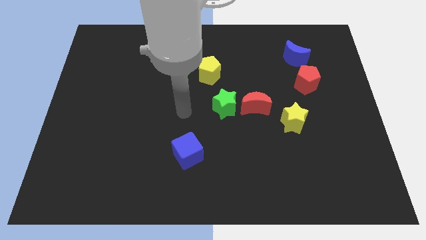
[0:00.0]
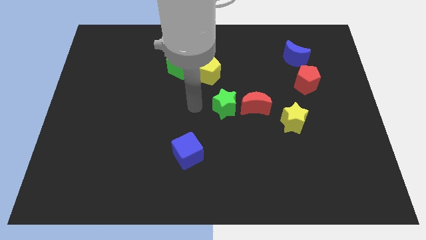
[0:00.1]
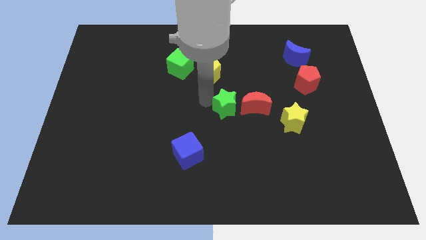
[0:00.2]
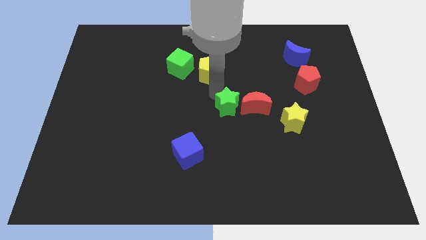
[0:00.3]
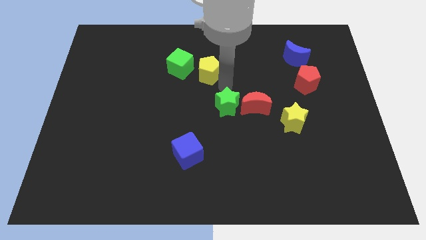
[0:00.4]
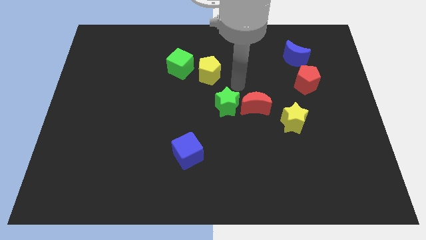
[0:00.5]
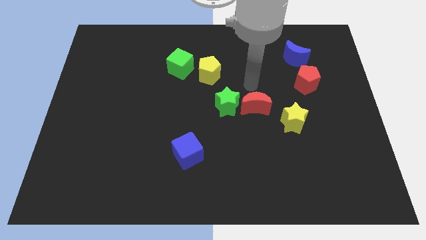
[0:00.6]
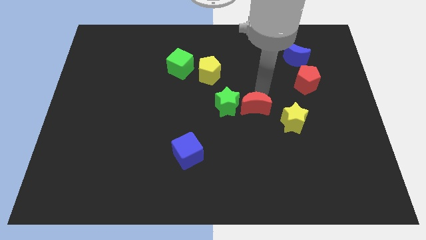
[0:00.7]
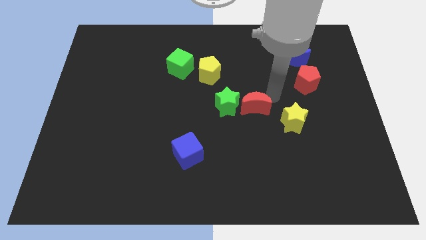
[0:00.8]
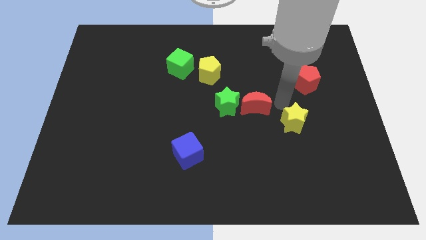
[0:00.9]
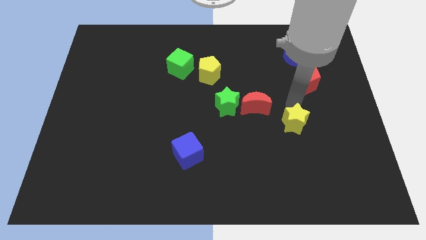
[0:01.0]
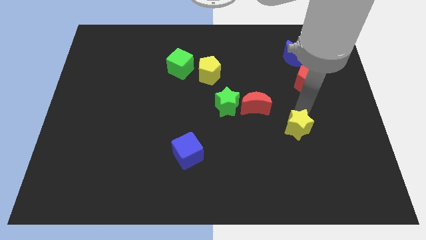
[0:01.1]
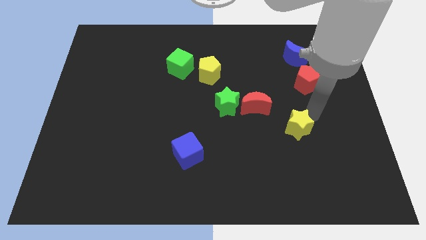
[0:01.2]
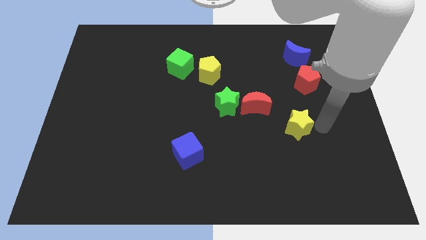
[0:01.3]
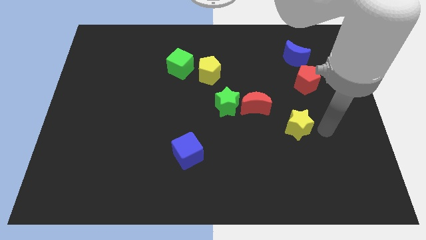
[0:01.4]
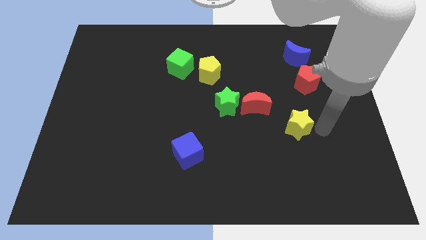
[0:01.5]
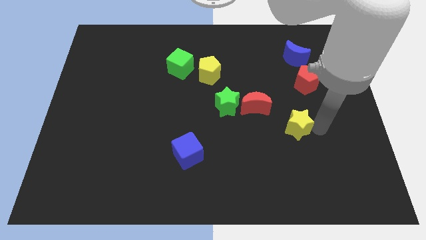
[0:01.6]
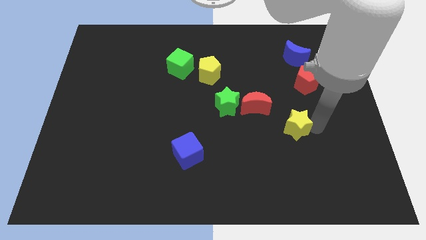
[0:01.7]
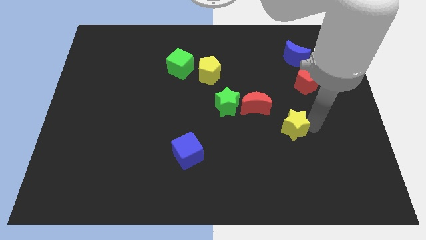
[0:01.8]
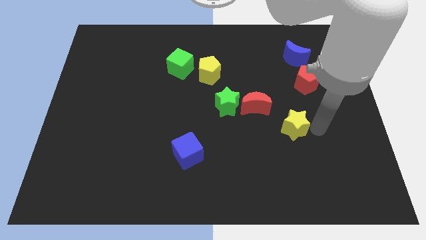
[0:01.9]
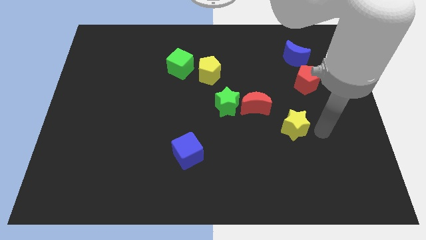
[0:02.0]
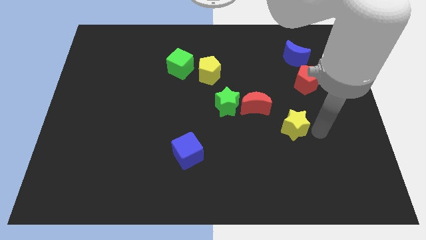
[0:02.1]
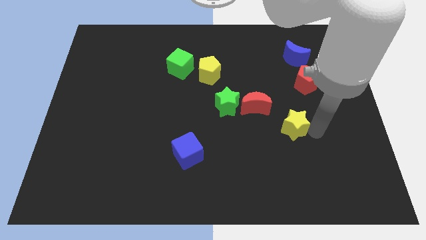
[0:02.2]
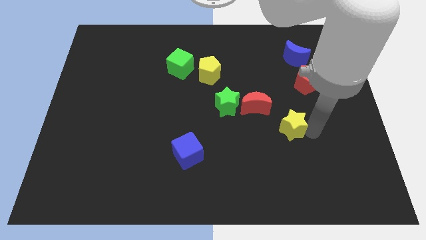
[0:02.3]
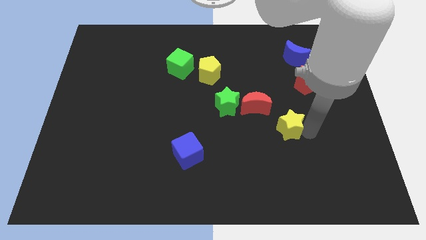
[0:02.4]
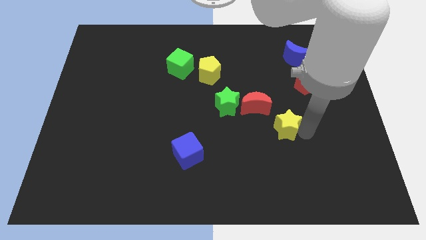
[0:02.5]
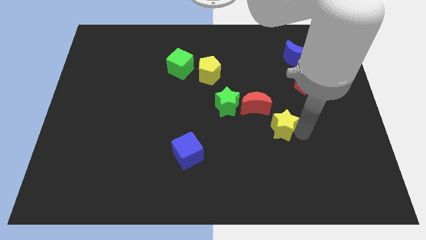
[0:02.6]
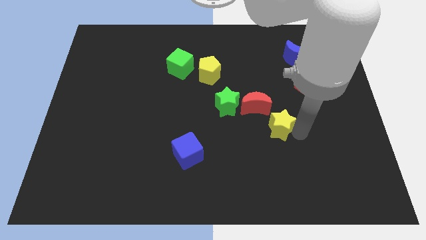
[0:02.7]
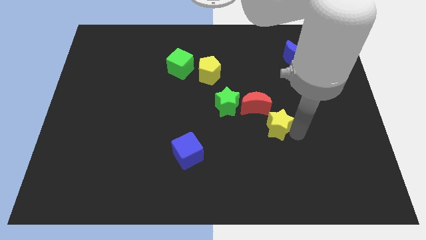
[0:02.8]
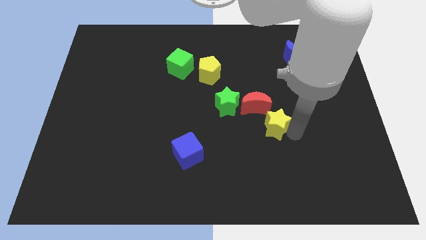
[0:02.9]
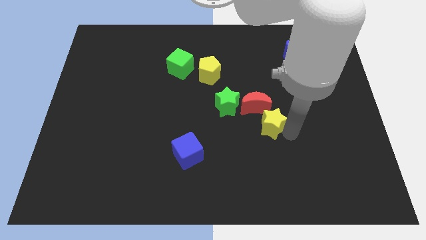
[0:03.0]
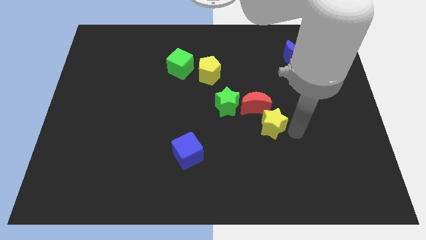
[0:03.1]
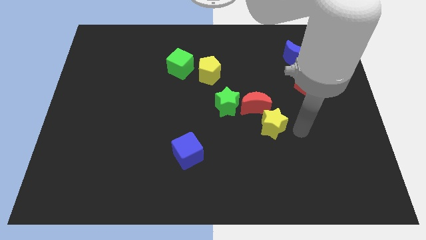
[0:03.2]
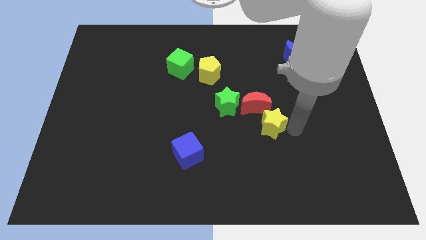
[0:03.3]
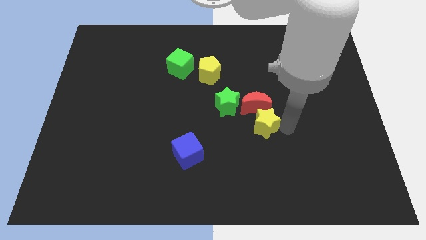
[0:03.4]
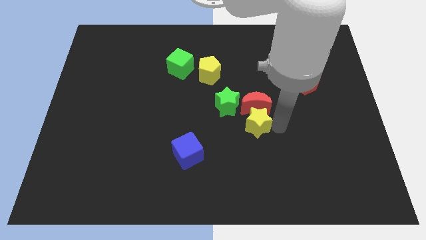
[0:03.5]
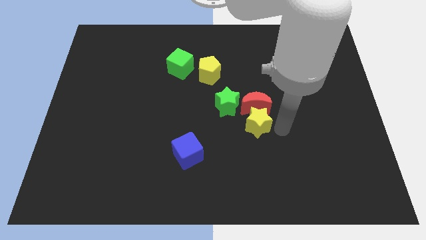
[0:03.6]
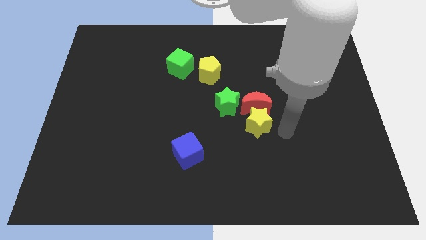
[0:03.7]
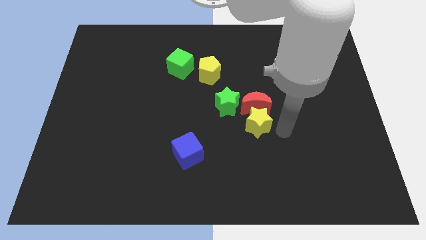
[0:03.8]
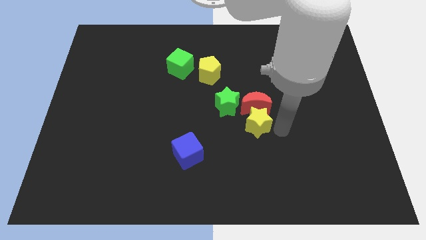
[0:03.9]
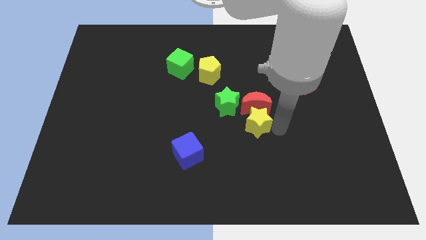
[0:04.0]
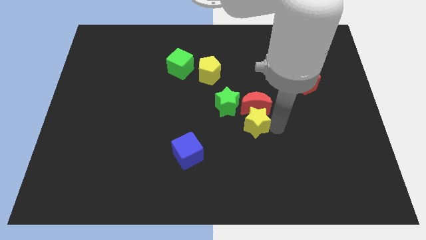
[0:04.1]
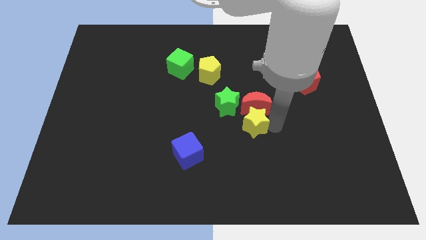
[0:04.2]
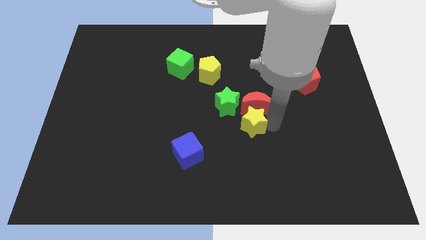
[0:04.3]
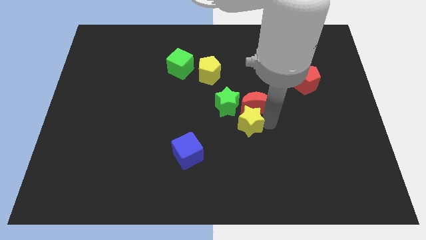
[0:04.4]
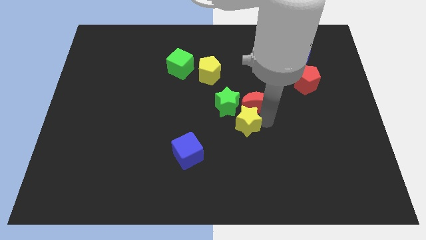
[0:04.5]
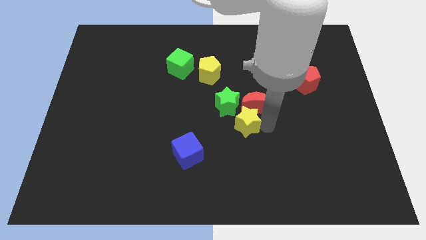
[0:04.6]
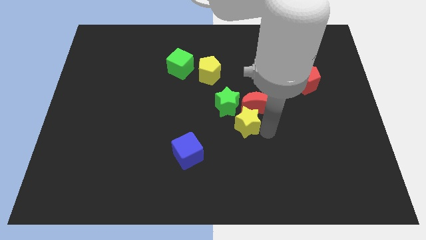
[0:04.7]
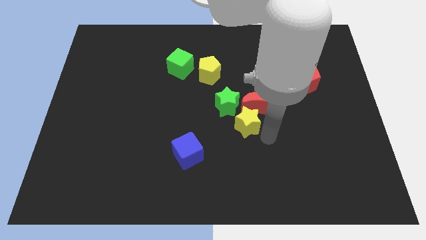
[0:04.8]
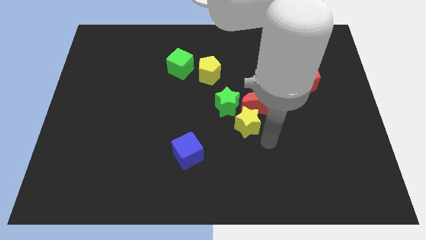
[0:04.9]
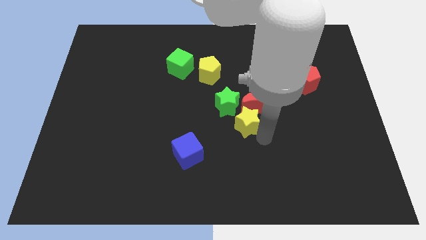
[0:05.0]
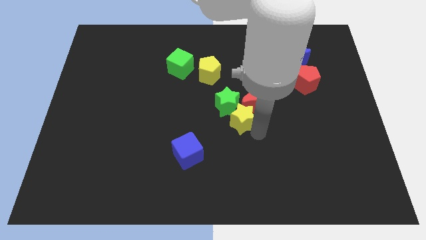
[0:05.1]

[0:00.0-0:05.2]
put the yellow star next to the green star

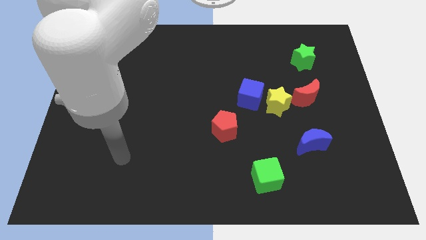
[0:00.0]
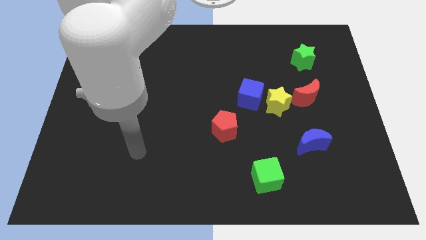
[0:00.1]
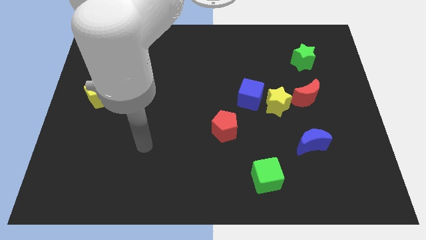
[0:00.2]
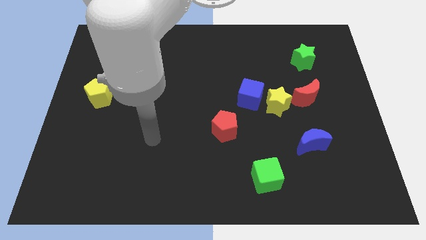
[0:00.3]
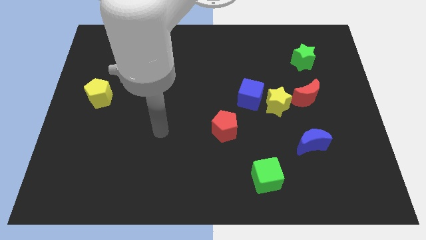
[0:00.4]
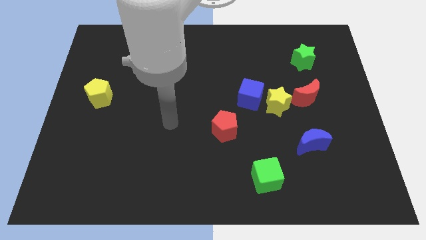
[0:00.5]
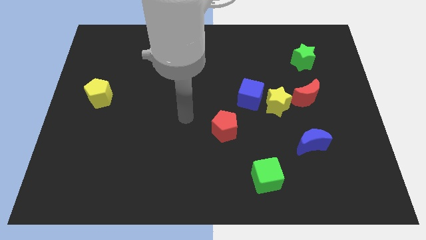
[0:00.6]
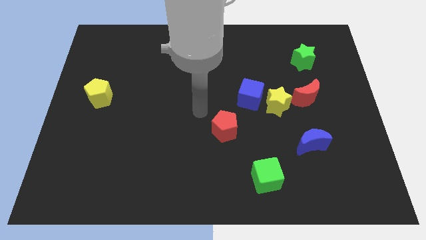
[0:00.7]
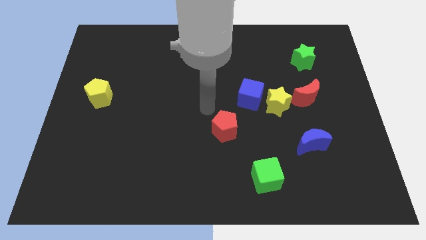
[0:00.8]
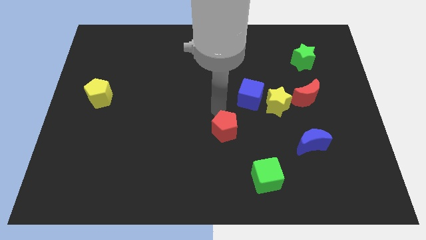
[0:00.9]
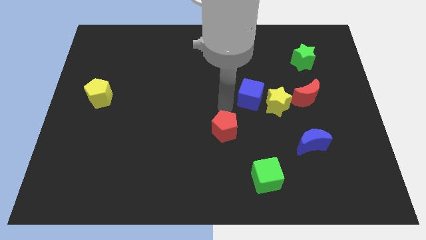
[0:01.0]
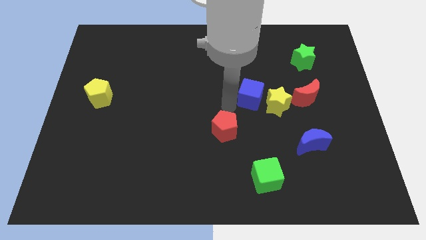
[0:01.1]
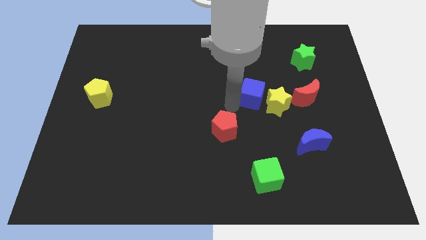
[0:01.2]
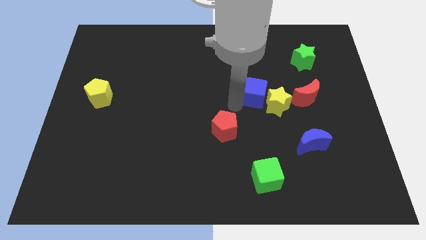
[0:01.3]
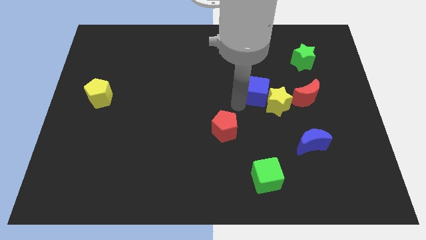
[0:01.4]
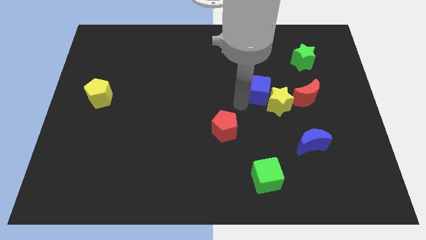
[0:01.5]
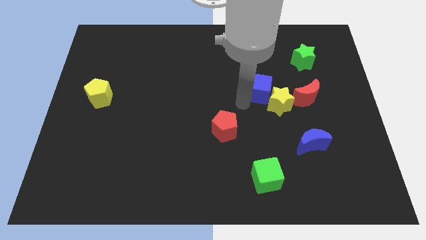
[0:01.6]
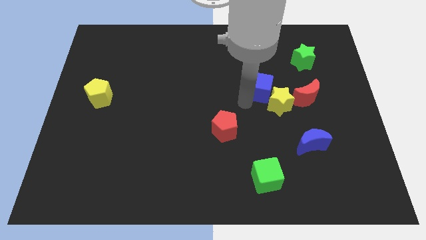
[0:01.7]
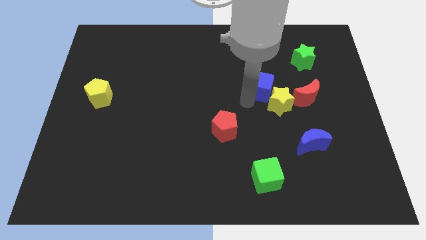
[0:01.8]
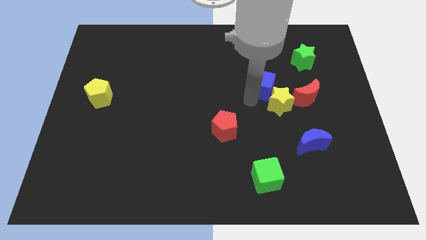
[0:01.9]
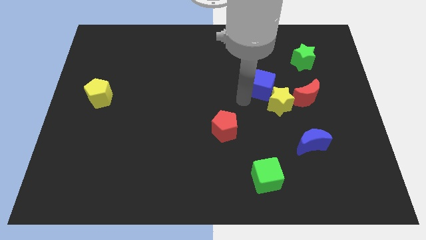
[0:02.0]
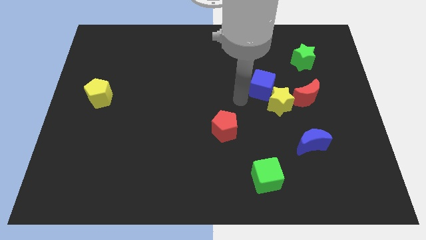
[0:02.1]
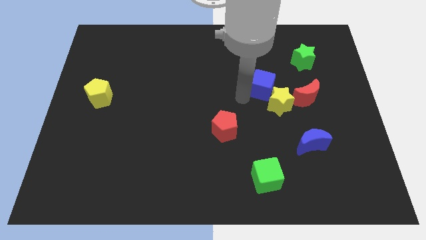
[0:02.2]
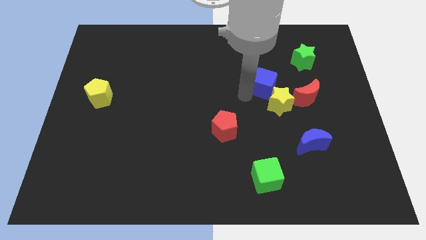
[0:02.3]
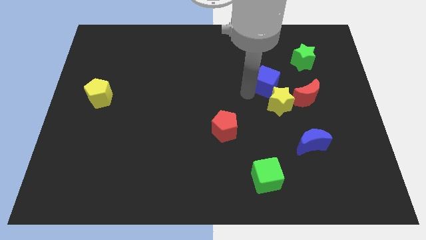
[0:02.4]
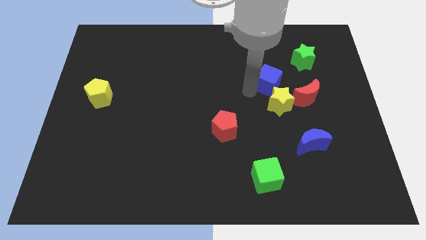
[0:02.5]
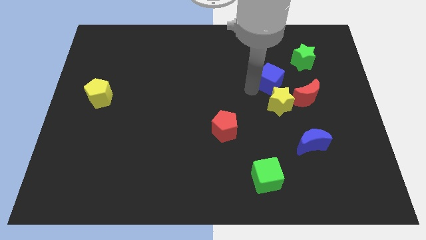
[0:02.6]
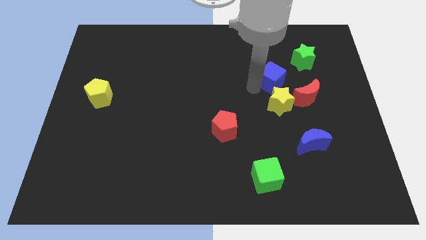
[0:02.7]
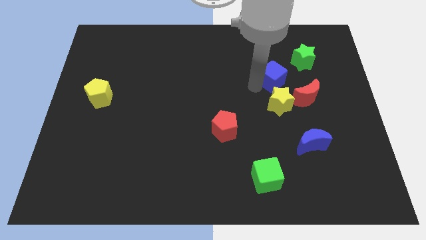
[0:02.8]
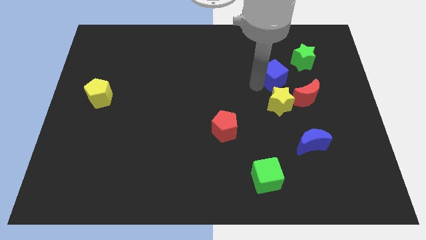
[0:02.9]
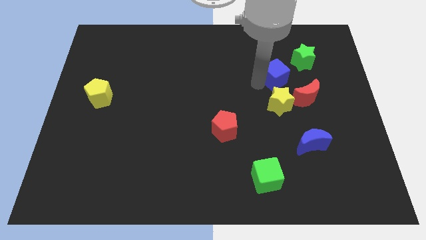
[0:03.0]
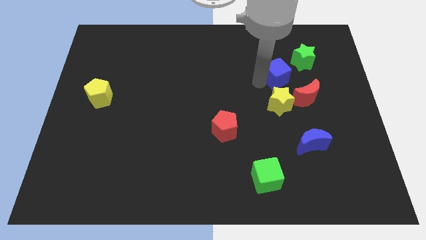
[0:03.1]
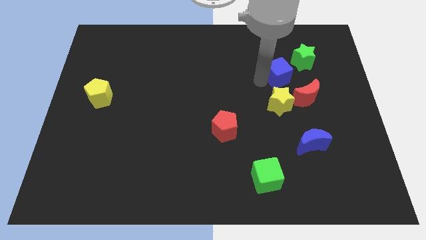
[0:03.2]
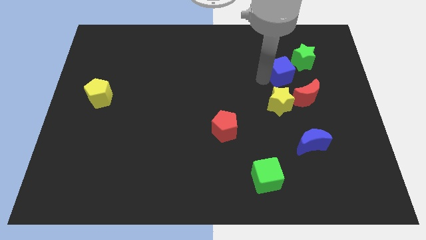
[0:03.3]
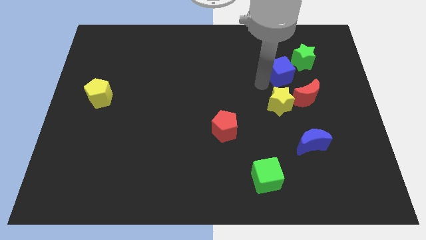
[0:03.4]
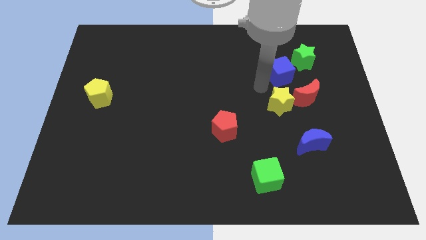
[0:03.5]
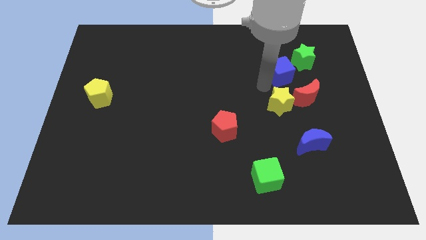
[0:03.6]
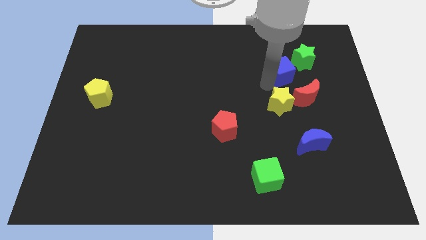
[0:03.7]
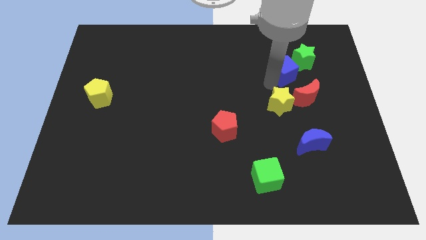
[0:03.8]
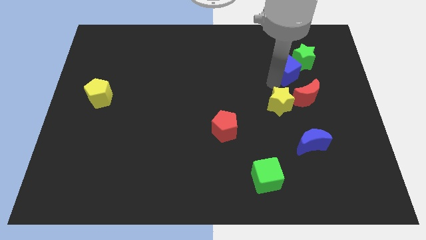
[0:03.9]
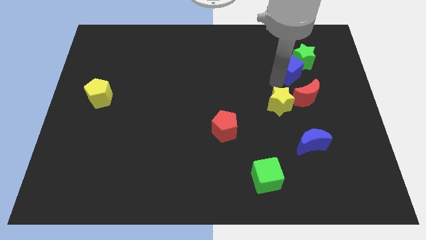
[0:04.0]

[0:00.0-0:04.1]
move the blue cube to the green star
